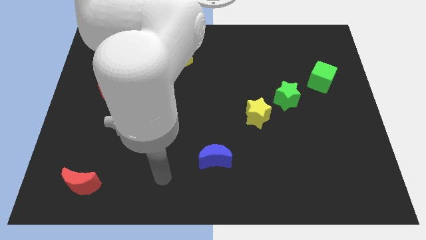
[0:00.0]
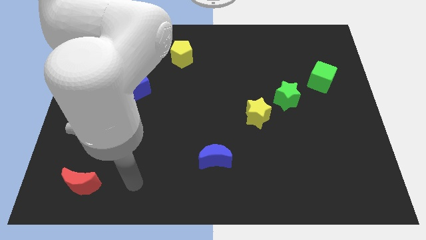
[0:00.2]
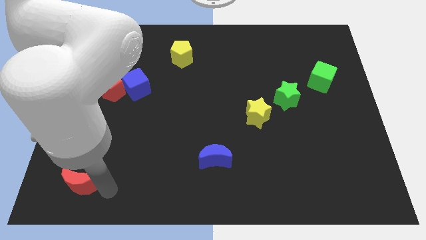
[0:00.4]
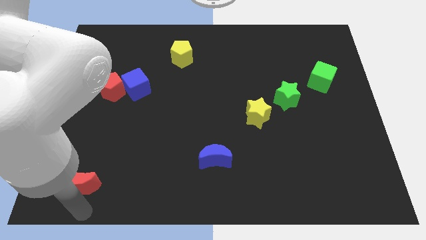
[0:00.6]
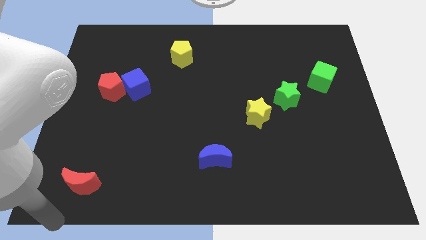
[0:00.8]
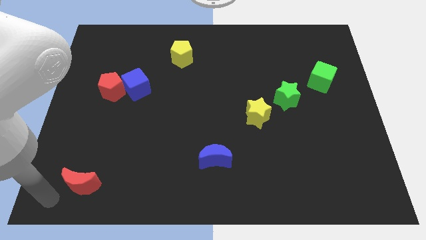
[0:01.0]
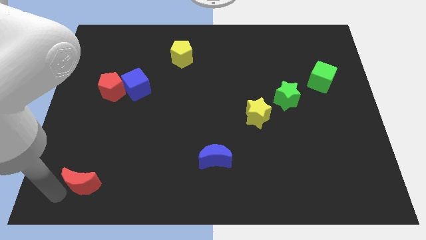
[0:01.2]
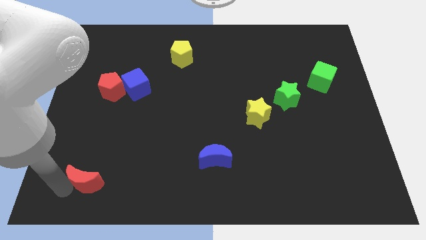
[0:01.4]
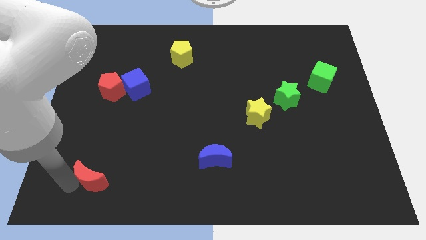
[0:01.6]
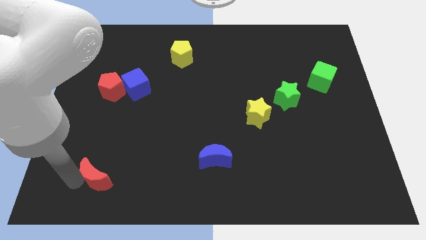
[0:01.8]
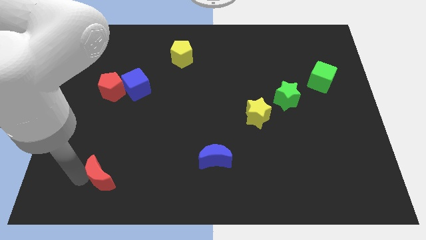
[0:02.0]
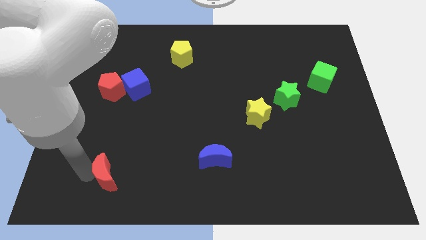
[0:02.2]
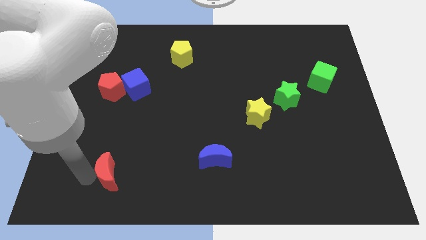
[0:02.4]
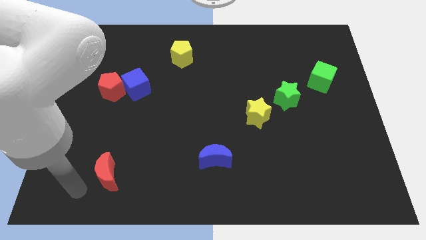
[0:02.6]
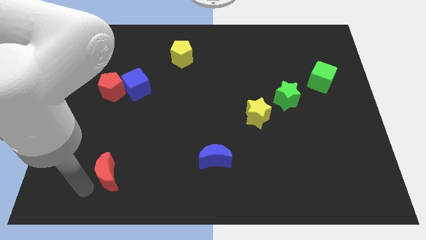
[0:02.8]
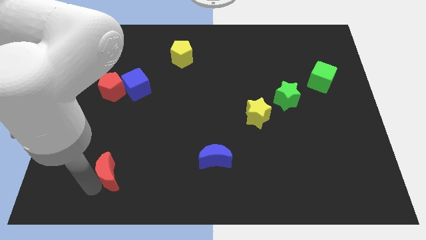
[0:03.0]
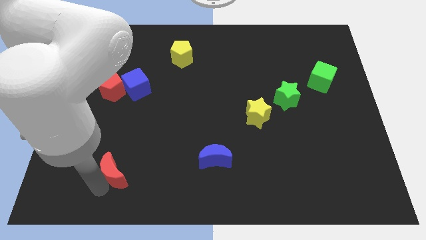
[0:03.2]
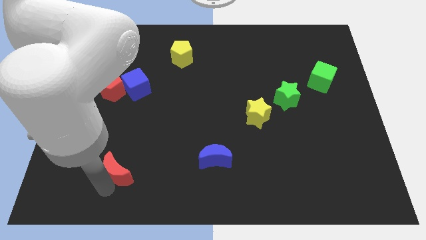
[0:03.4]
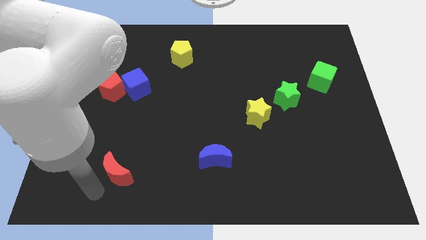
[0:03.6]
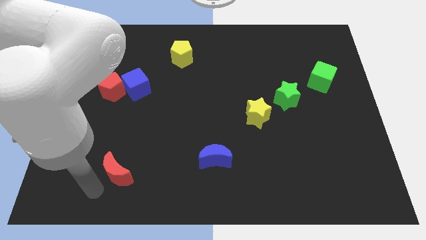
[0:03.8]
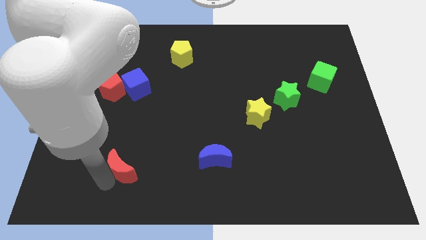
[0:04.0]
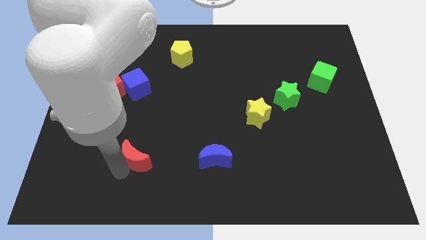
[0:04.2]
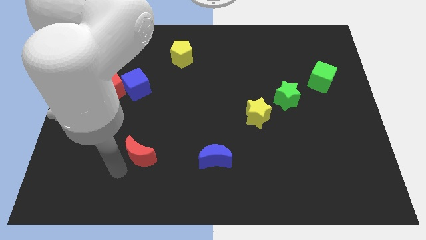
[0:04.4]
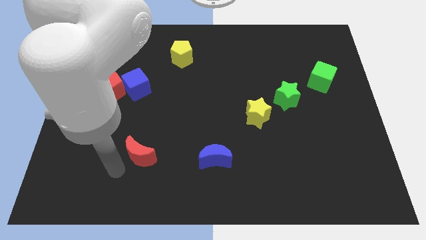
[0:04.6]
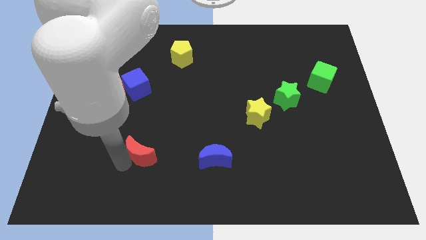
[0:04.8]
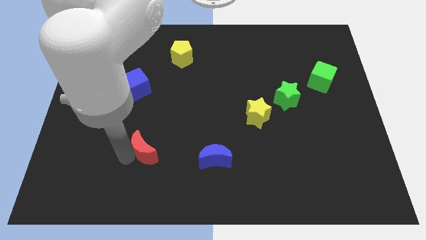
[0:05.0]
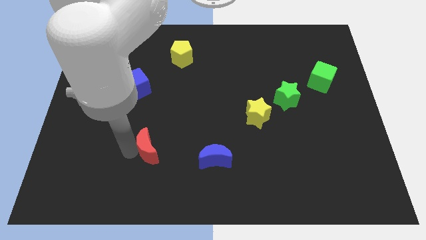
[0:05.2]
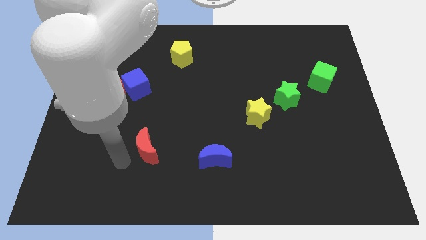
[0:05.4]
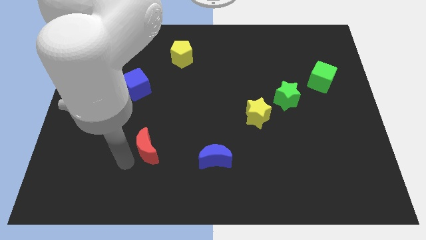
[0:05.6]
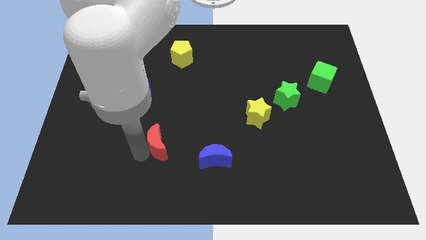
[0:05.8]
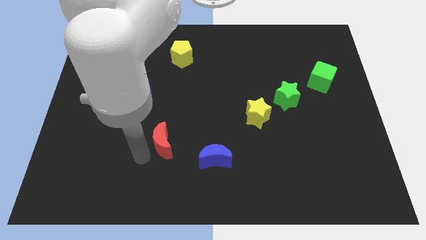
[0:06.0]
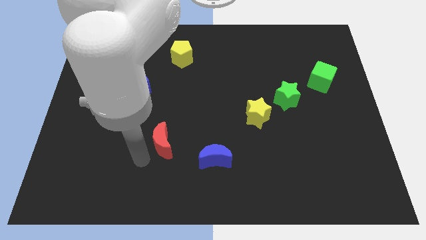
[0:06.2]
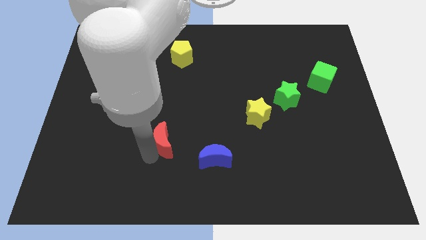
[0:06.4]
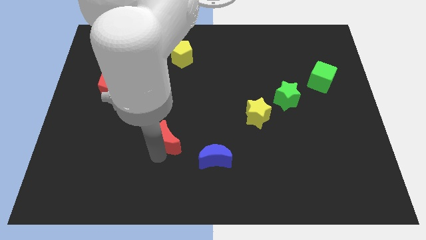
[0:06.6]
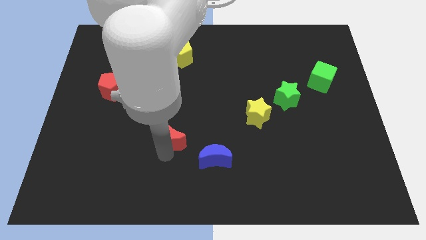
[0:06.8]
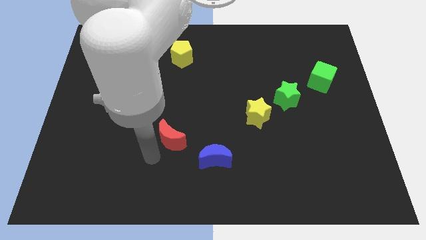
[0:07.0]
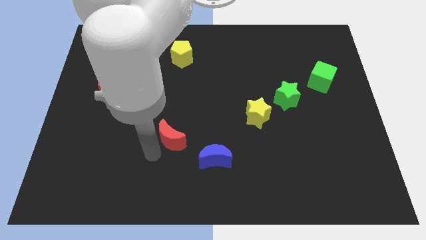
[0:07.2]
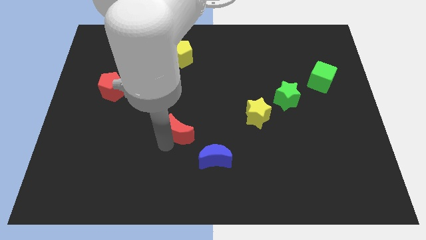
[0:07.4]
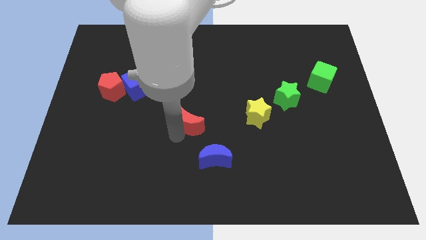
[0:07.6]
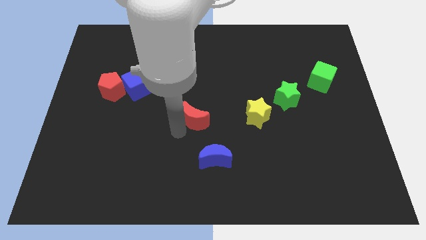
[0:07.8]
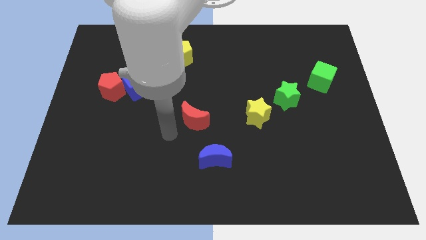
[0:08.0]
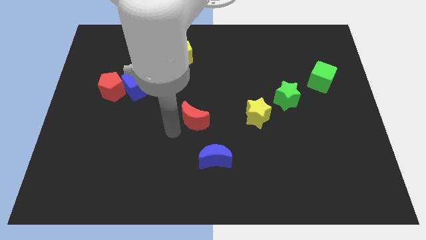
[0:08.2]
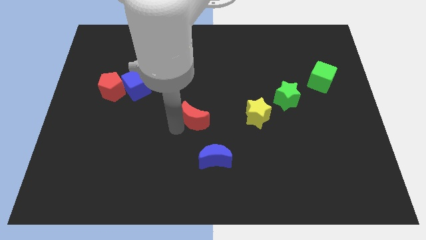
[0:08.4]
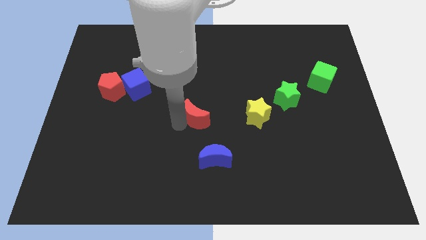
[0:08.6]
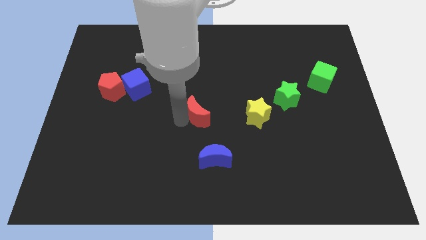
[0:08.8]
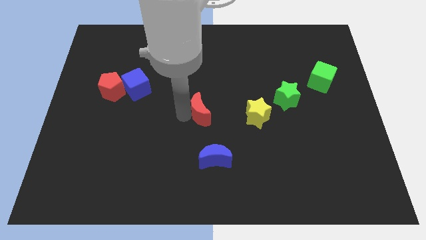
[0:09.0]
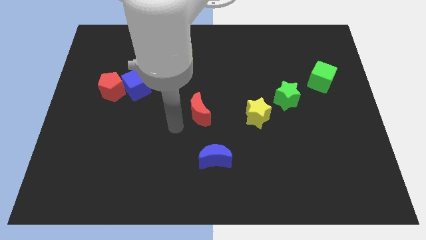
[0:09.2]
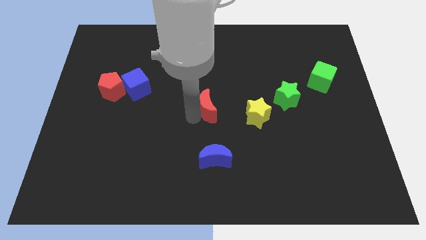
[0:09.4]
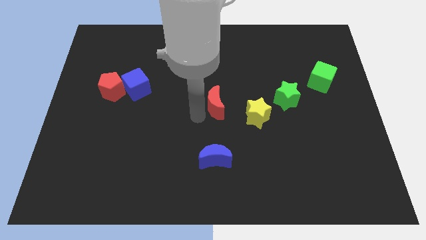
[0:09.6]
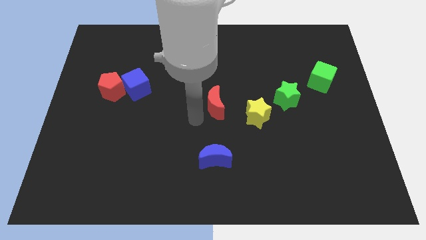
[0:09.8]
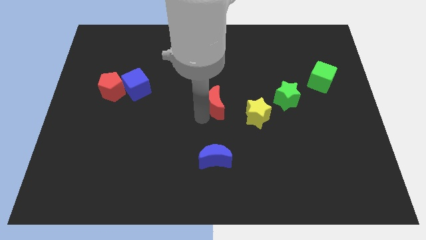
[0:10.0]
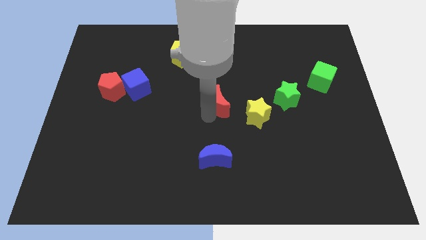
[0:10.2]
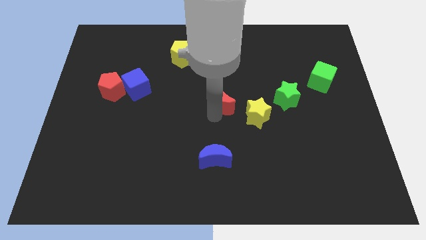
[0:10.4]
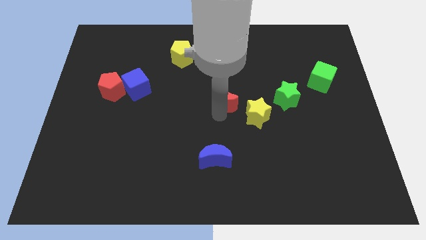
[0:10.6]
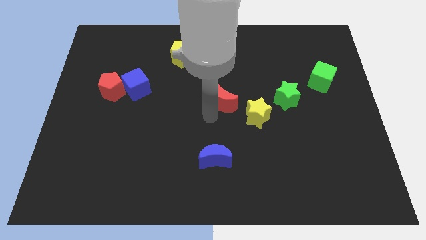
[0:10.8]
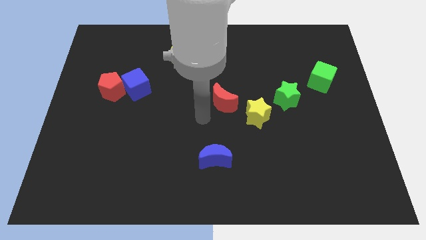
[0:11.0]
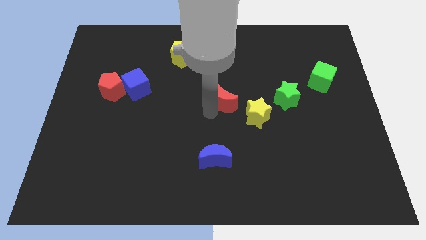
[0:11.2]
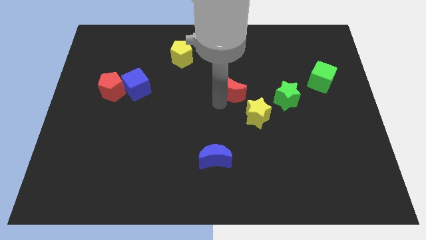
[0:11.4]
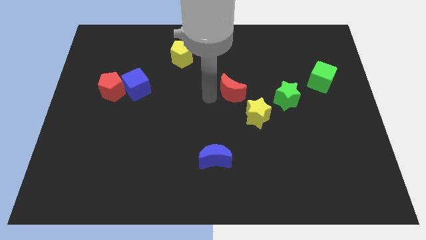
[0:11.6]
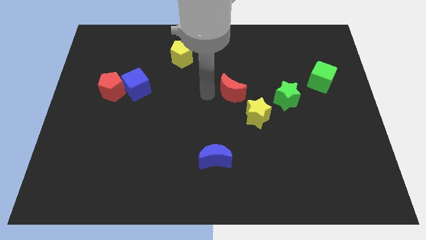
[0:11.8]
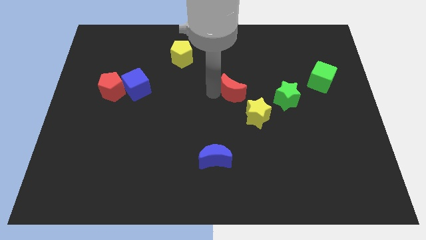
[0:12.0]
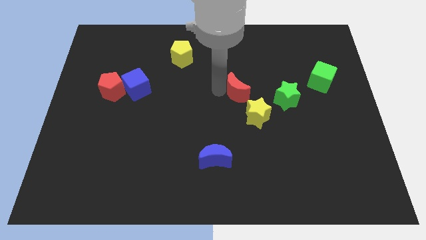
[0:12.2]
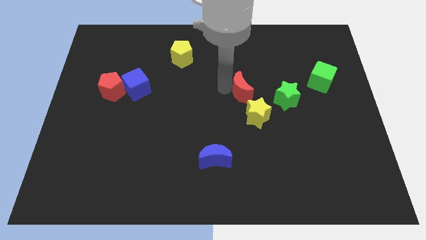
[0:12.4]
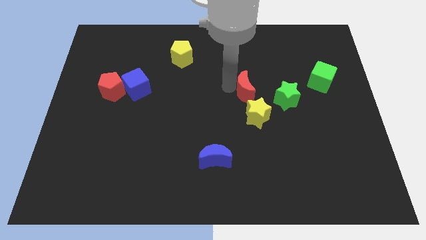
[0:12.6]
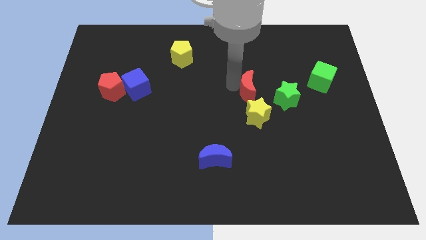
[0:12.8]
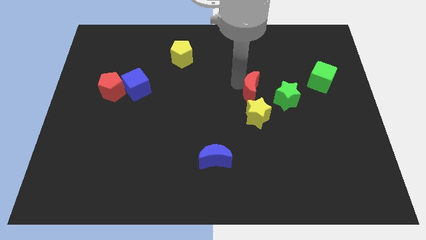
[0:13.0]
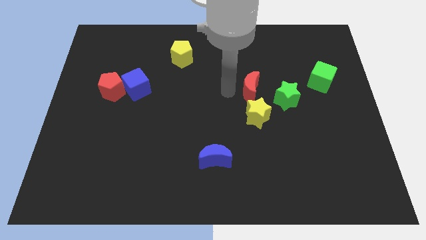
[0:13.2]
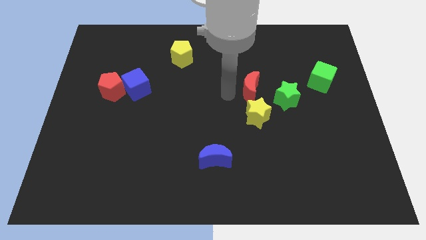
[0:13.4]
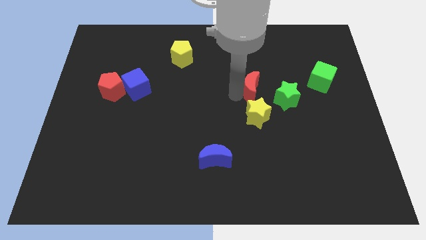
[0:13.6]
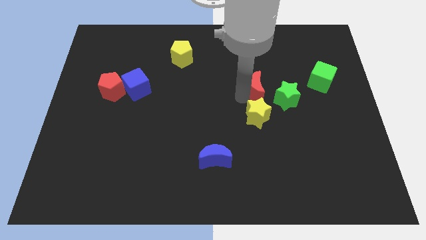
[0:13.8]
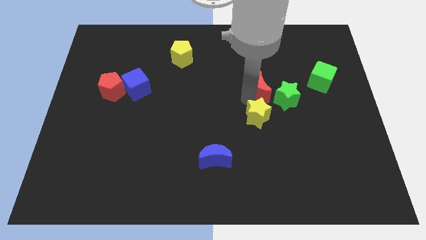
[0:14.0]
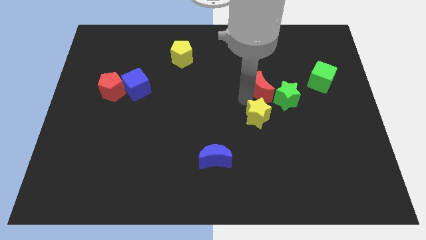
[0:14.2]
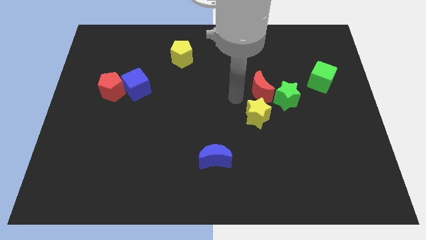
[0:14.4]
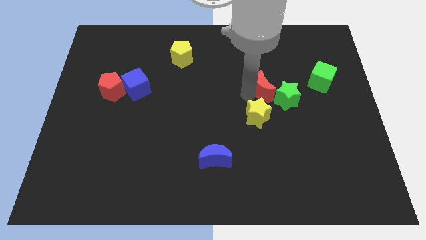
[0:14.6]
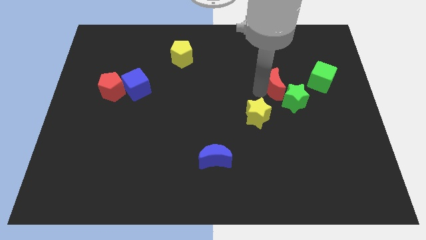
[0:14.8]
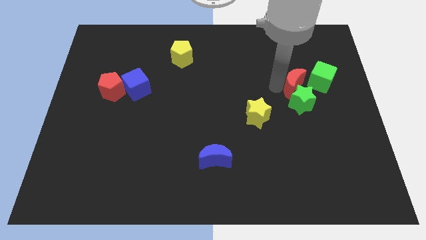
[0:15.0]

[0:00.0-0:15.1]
put the red moon to the top right of the green star
